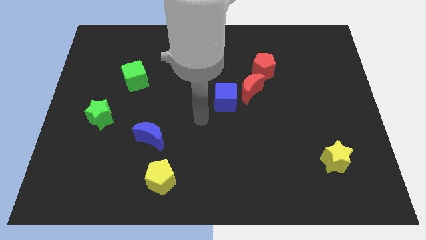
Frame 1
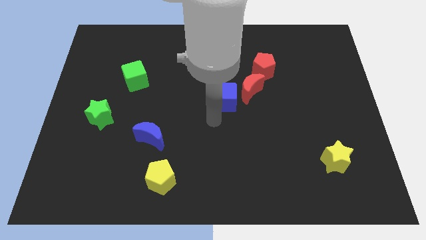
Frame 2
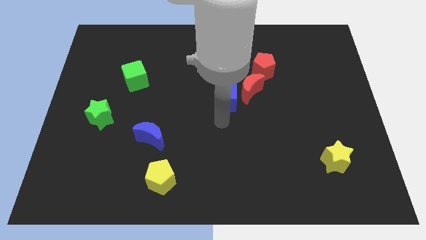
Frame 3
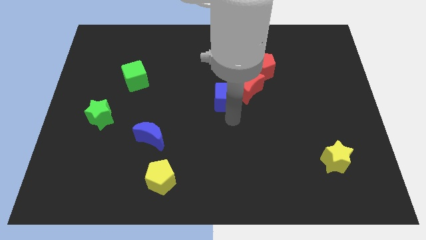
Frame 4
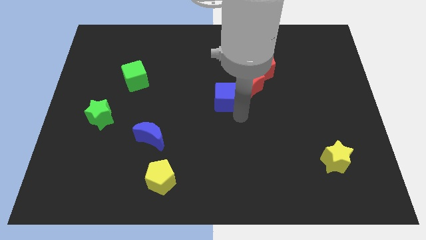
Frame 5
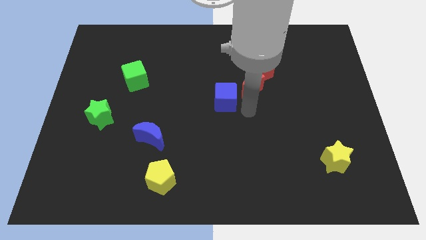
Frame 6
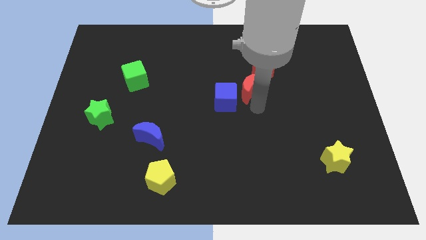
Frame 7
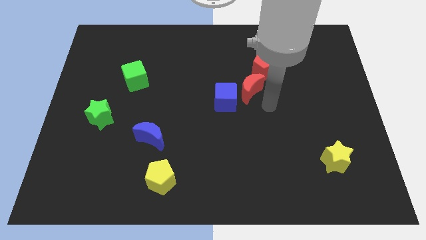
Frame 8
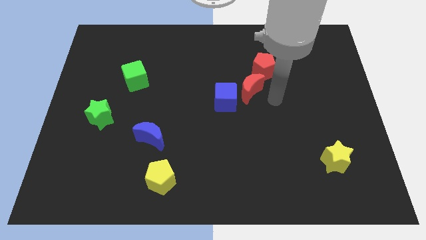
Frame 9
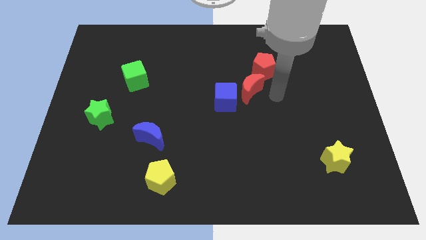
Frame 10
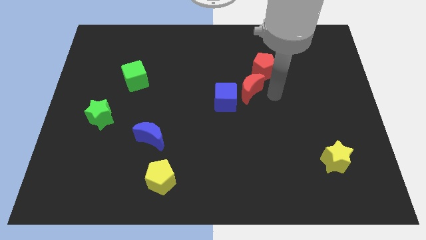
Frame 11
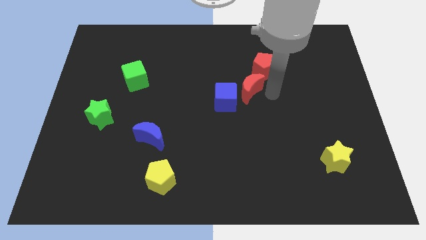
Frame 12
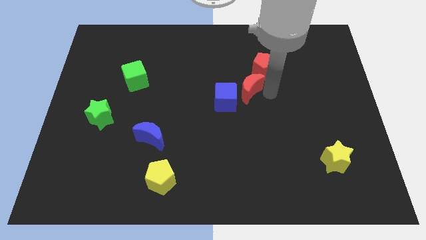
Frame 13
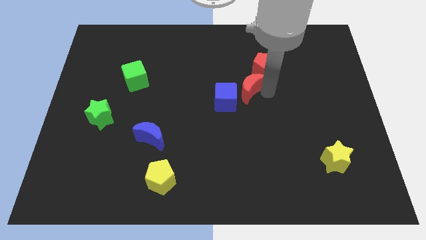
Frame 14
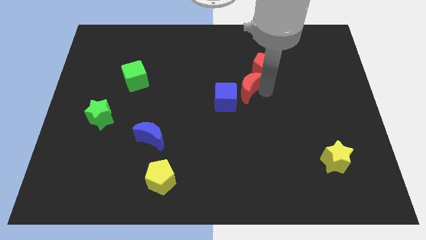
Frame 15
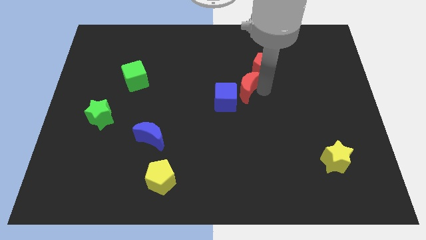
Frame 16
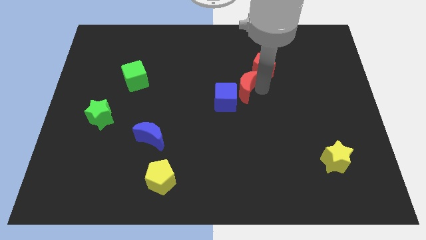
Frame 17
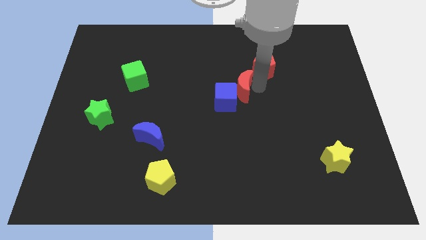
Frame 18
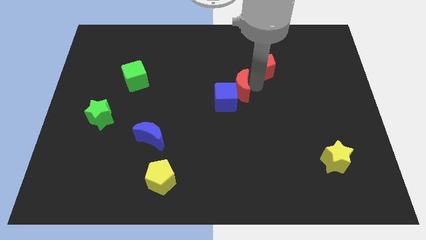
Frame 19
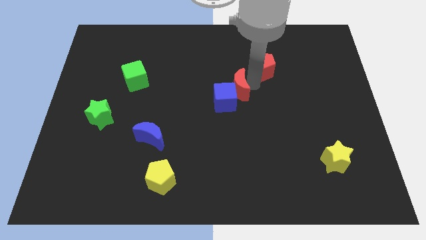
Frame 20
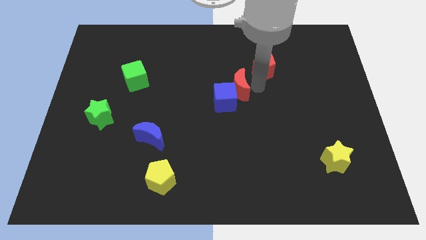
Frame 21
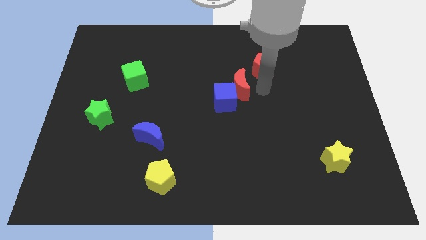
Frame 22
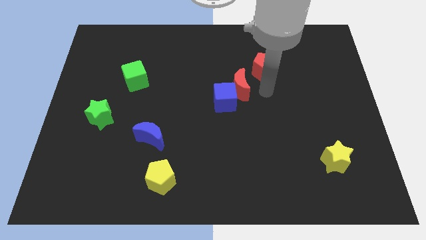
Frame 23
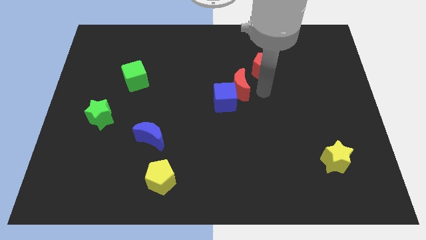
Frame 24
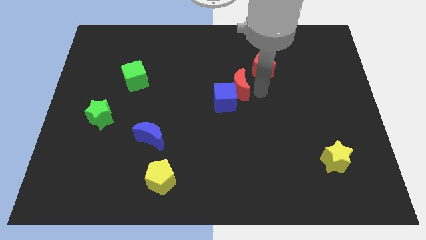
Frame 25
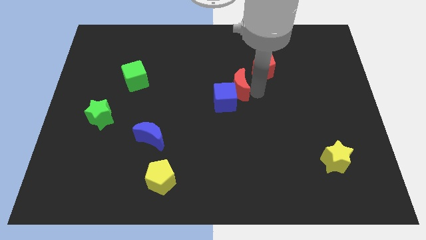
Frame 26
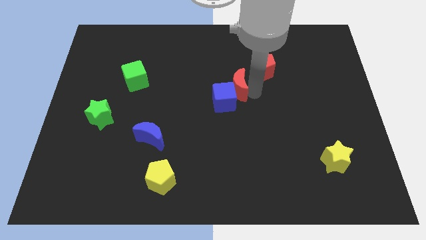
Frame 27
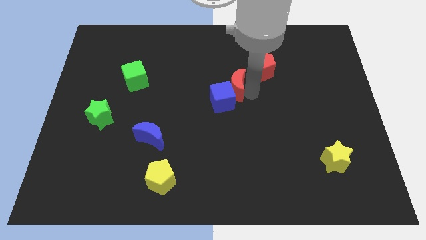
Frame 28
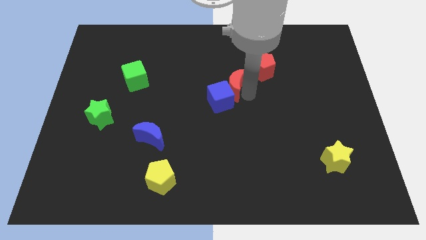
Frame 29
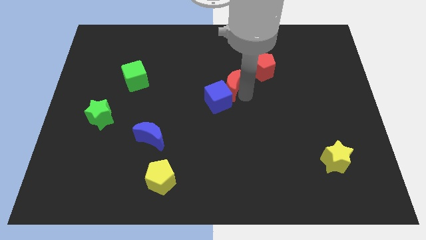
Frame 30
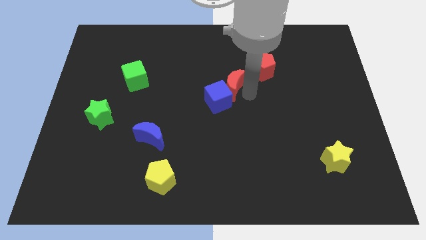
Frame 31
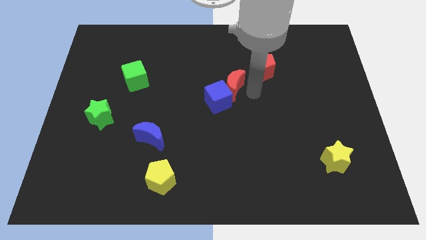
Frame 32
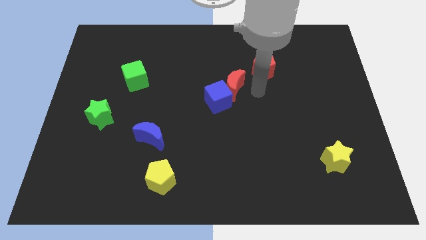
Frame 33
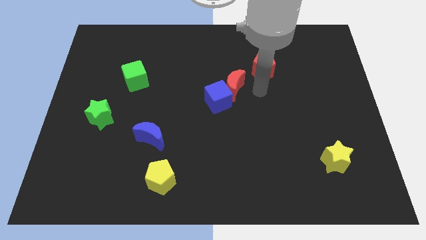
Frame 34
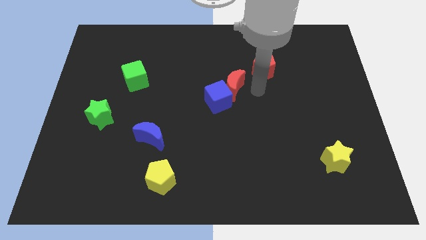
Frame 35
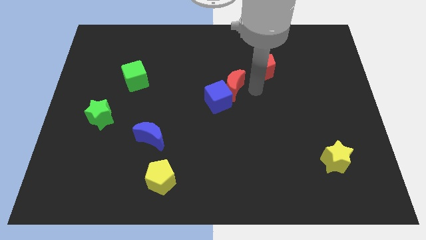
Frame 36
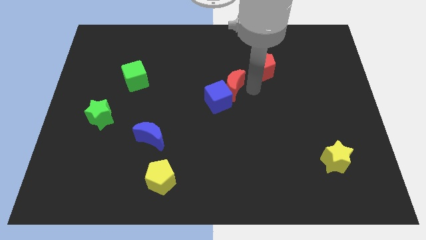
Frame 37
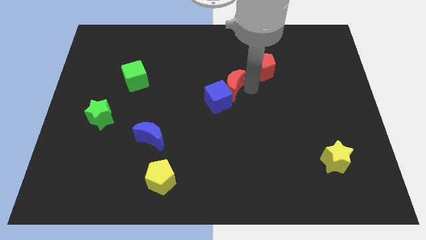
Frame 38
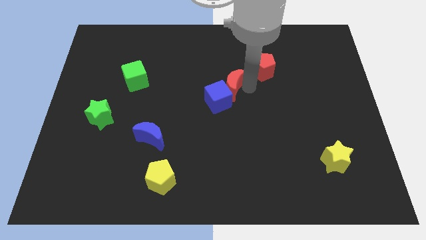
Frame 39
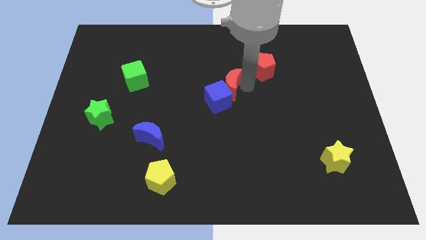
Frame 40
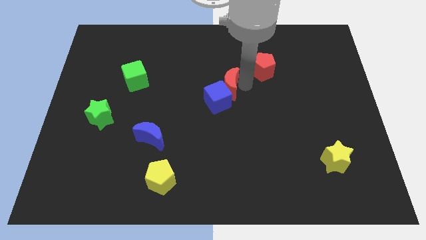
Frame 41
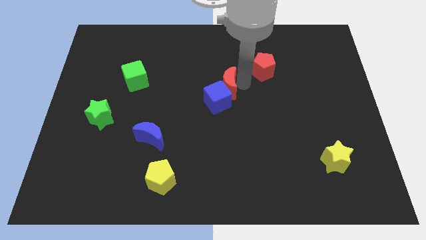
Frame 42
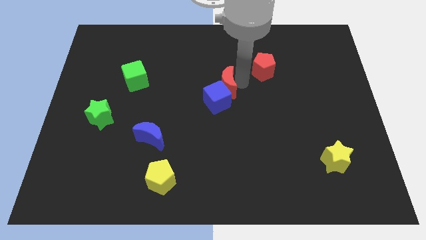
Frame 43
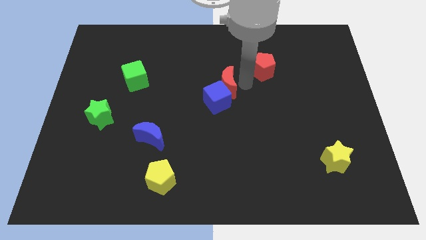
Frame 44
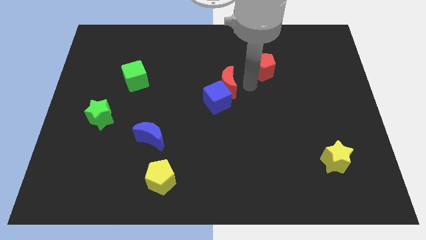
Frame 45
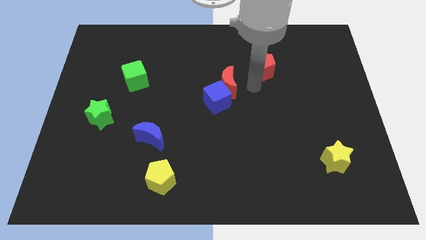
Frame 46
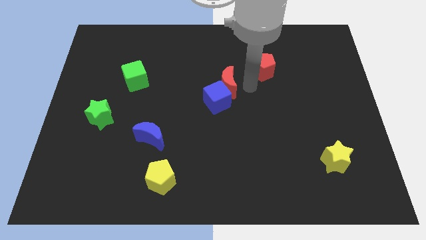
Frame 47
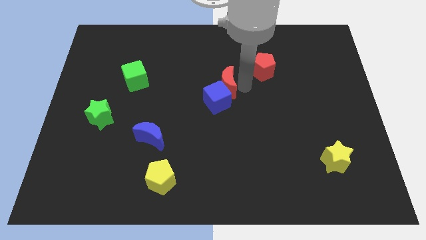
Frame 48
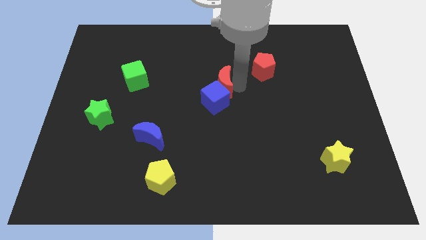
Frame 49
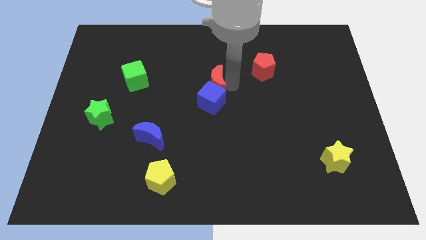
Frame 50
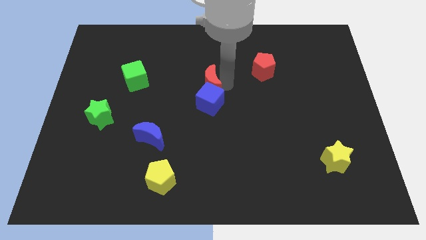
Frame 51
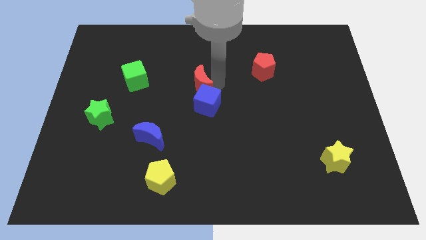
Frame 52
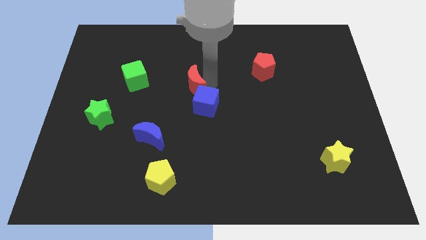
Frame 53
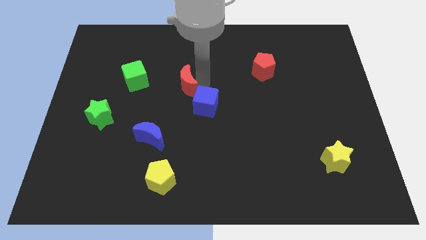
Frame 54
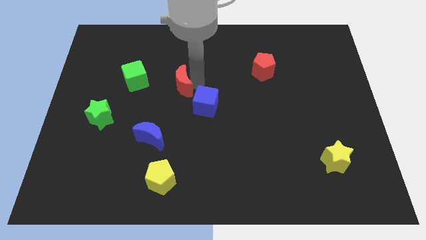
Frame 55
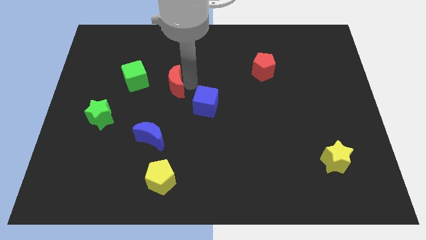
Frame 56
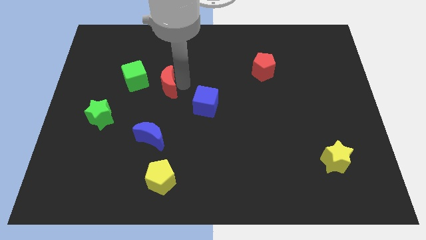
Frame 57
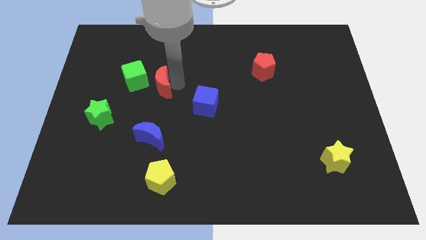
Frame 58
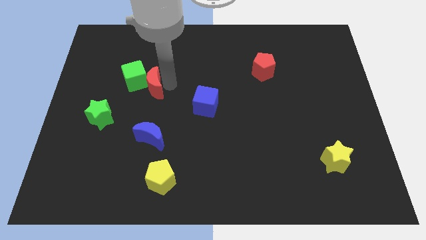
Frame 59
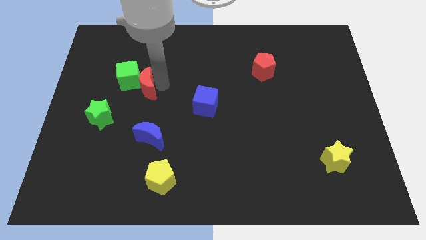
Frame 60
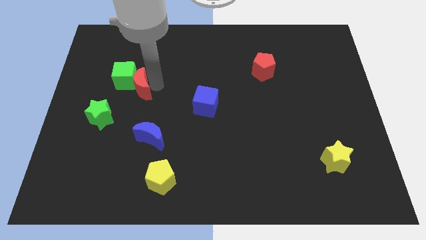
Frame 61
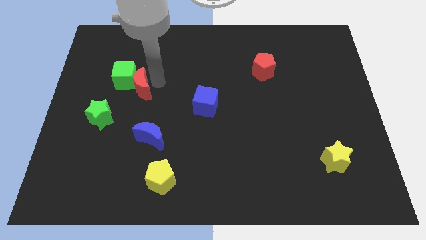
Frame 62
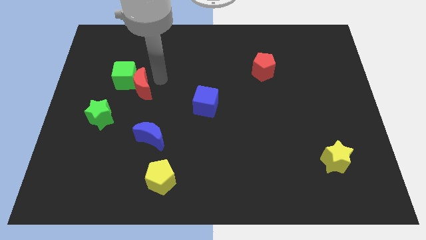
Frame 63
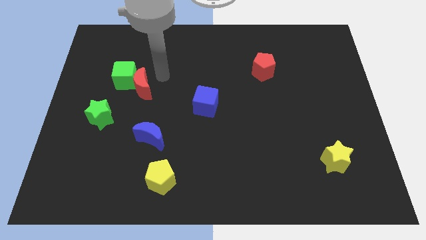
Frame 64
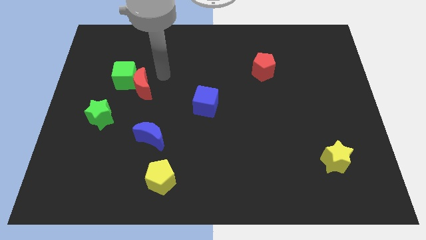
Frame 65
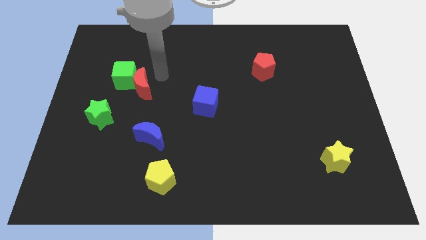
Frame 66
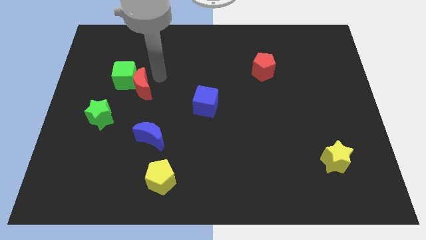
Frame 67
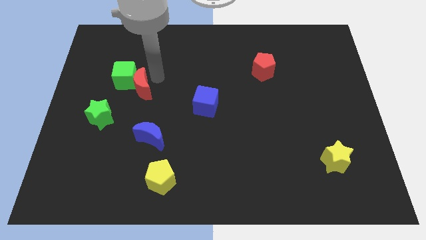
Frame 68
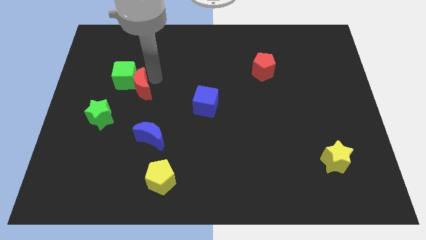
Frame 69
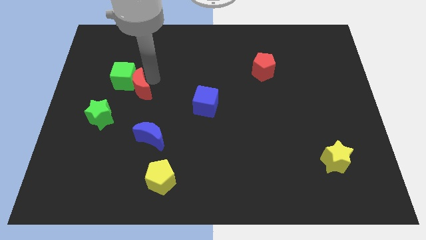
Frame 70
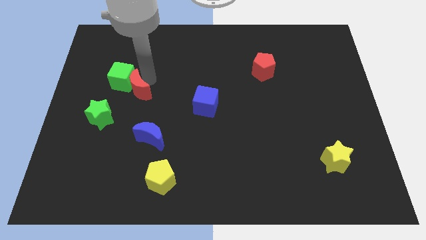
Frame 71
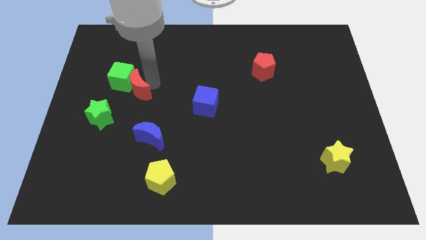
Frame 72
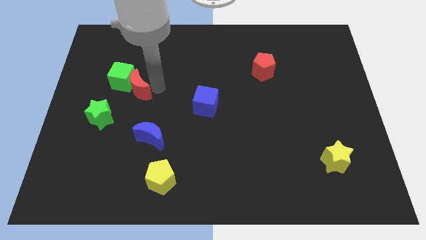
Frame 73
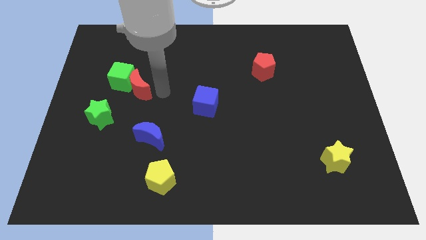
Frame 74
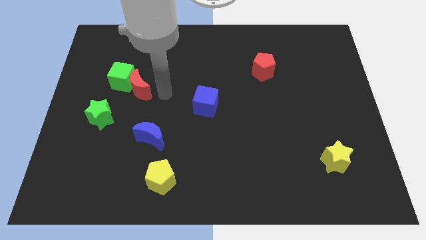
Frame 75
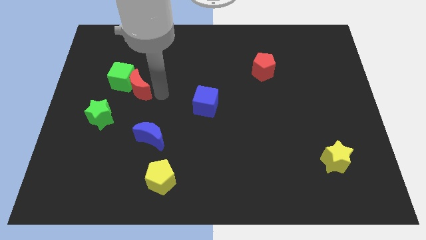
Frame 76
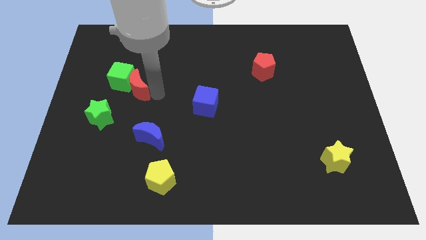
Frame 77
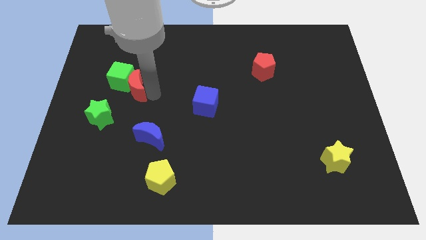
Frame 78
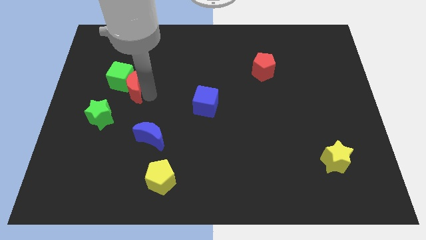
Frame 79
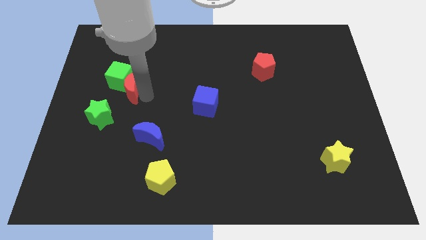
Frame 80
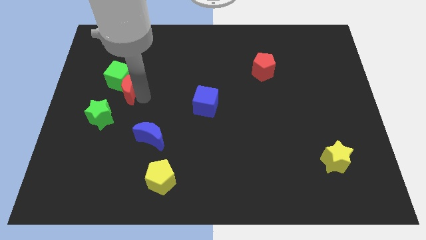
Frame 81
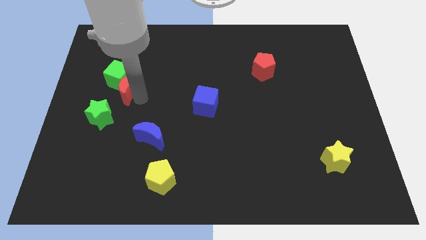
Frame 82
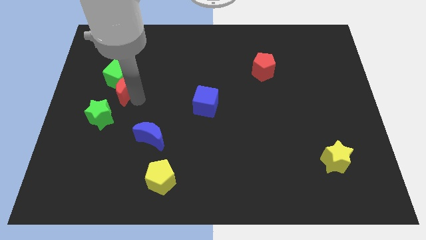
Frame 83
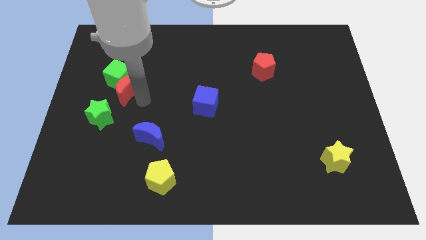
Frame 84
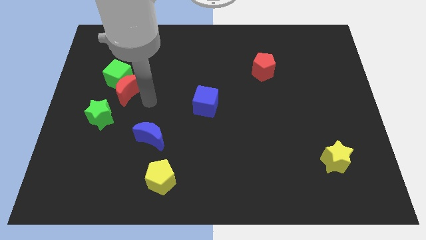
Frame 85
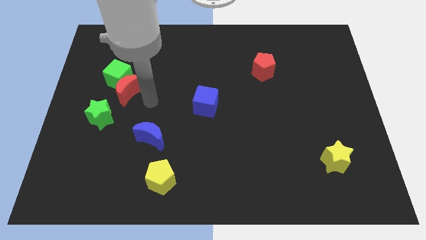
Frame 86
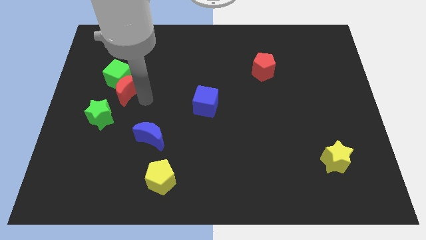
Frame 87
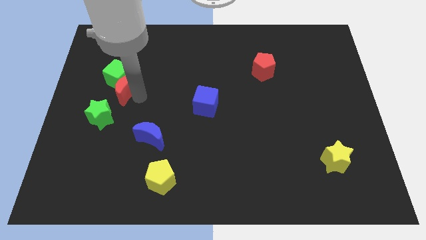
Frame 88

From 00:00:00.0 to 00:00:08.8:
put the red moon to the top side of the green star
